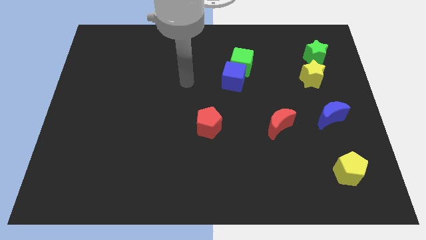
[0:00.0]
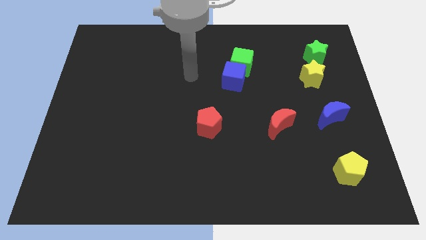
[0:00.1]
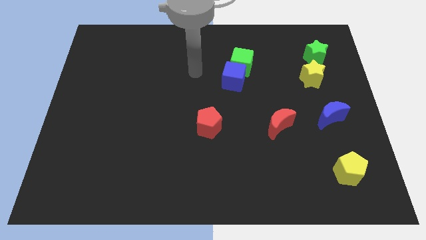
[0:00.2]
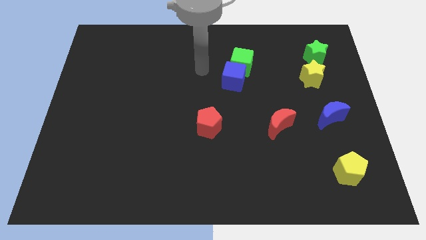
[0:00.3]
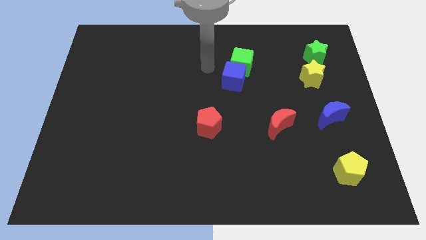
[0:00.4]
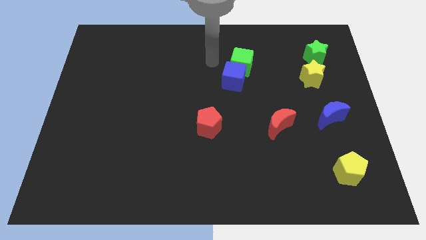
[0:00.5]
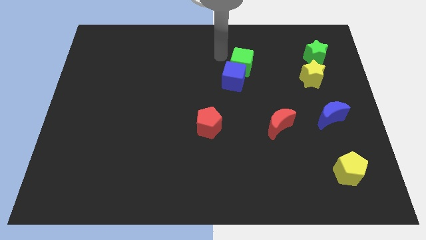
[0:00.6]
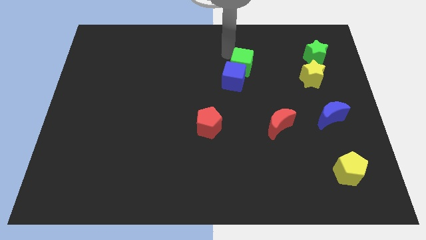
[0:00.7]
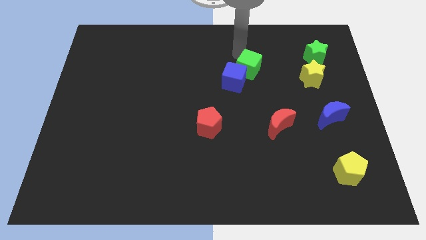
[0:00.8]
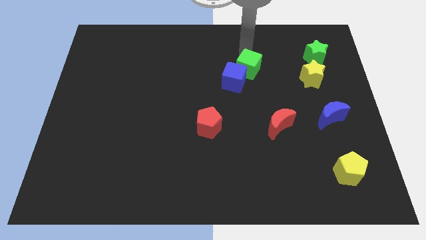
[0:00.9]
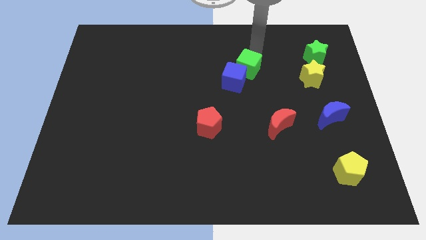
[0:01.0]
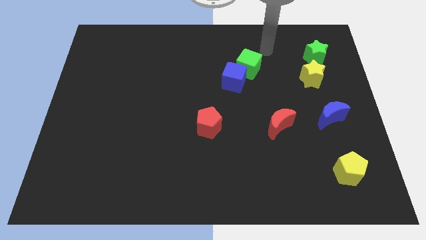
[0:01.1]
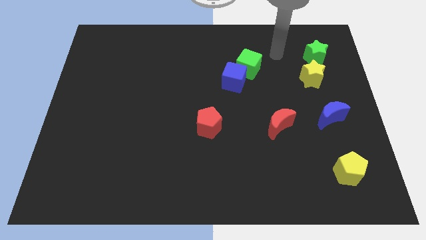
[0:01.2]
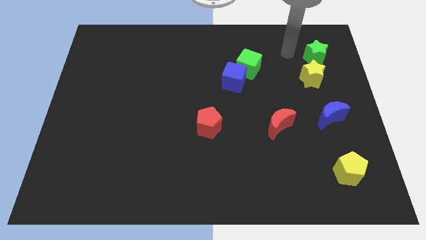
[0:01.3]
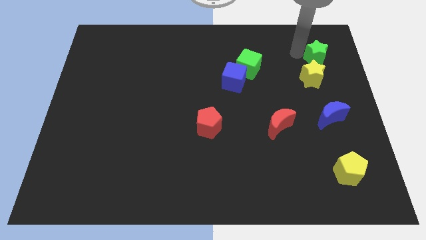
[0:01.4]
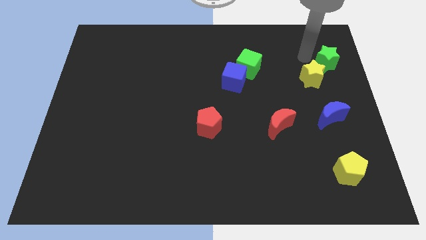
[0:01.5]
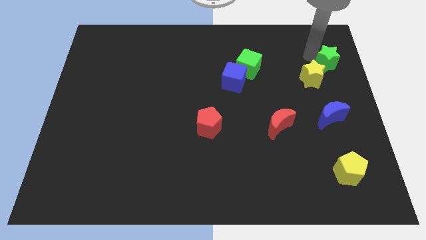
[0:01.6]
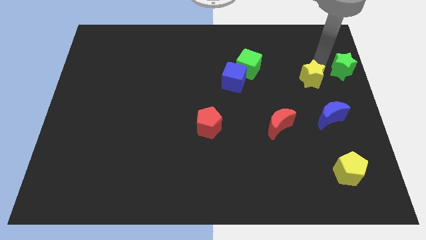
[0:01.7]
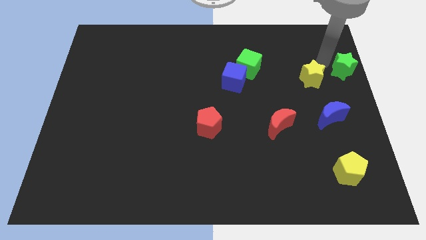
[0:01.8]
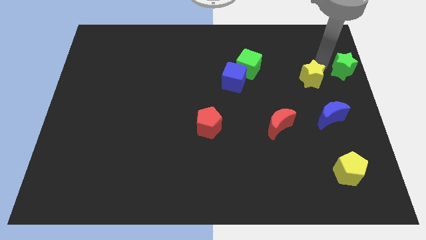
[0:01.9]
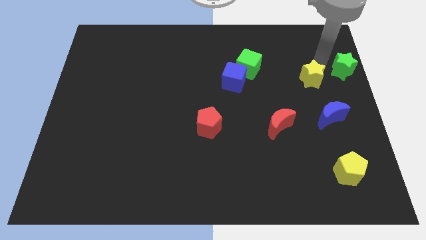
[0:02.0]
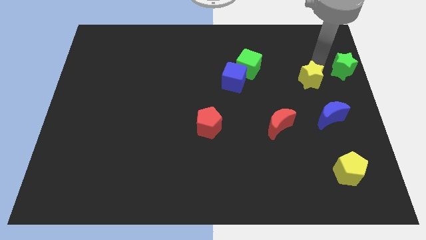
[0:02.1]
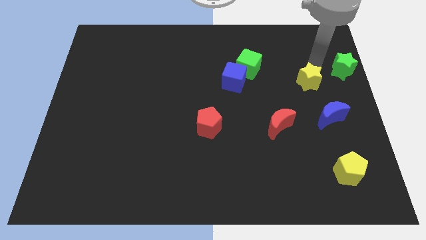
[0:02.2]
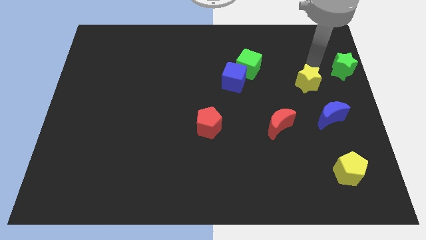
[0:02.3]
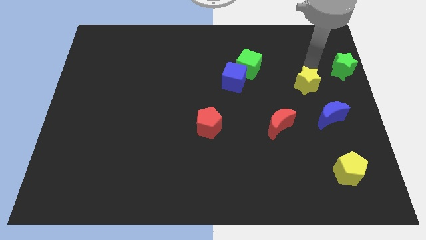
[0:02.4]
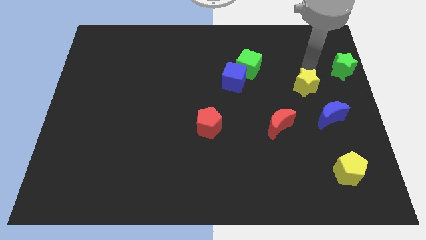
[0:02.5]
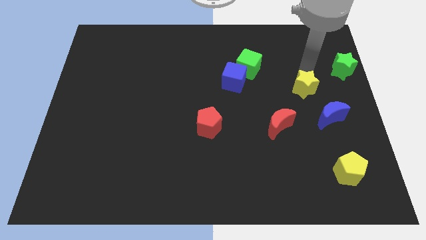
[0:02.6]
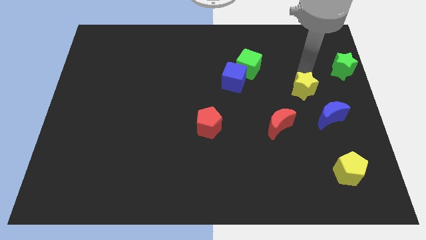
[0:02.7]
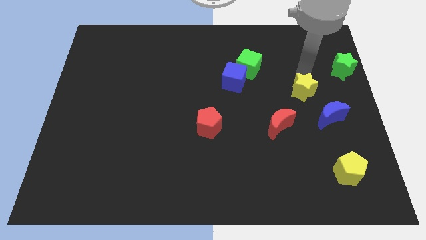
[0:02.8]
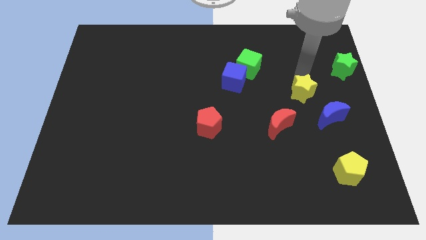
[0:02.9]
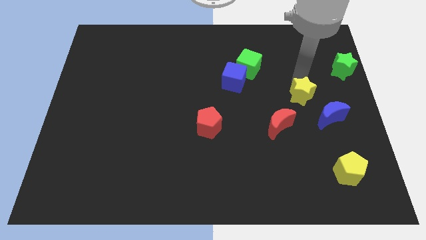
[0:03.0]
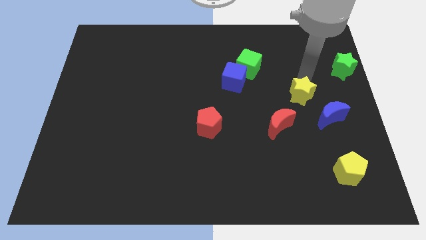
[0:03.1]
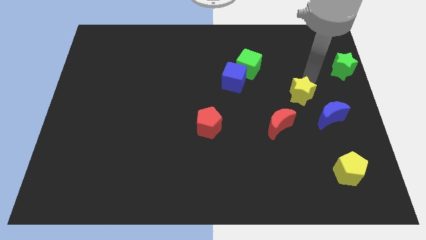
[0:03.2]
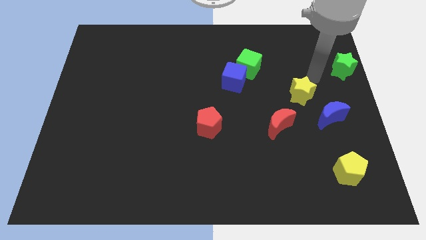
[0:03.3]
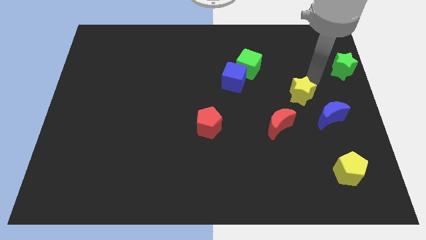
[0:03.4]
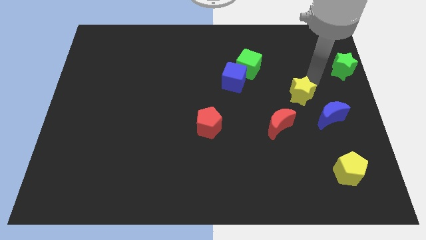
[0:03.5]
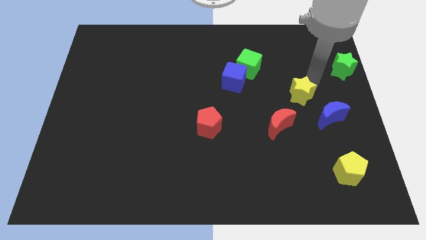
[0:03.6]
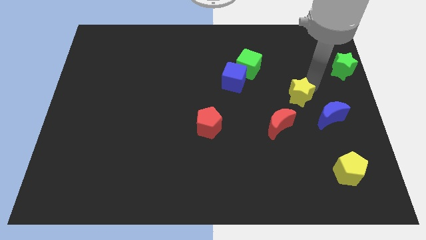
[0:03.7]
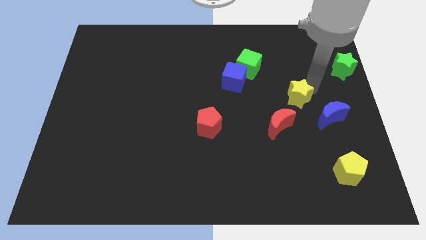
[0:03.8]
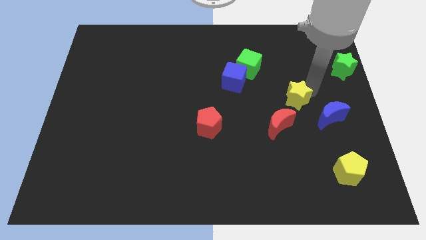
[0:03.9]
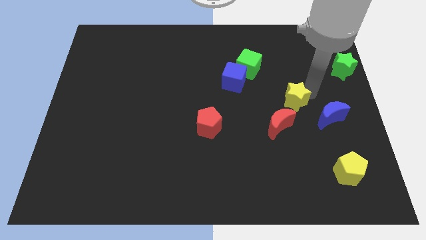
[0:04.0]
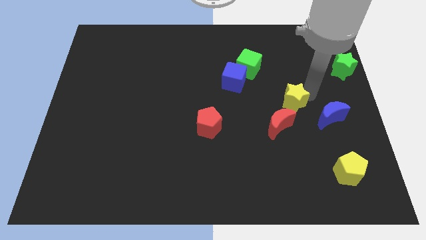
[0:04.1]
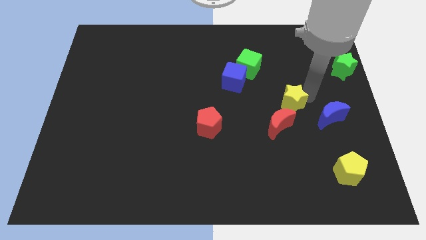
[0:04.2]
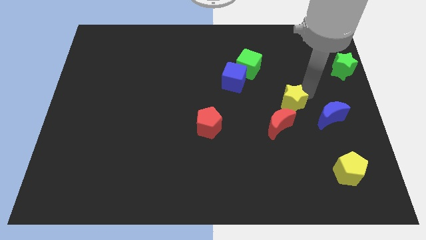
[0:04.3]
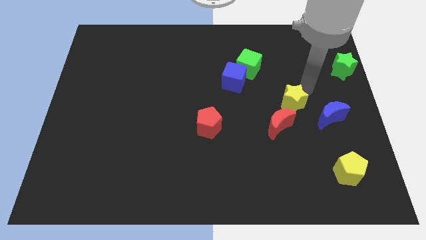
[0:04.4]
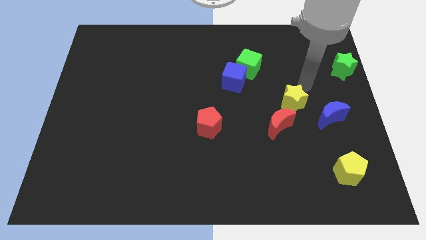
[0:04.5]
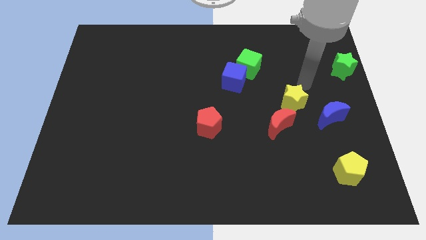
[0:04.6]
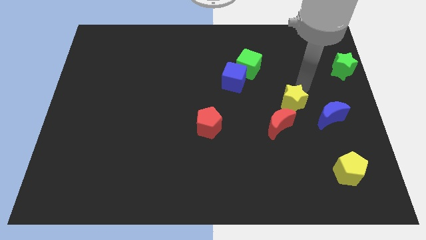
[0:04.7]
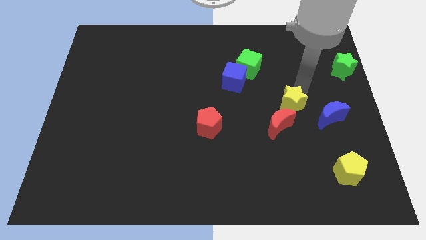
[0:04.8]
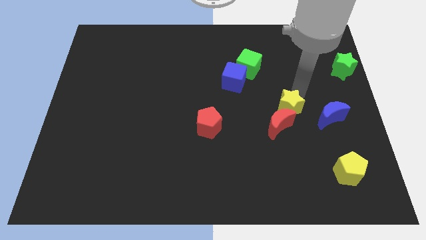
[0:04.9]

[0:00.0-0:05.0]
push the yellow star close to the red moon

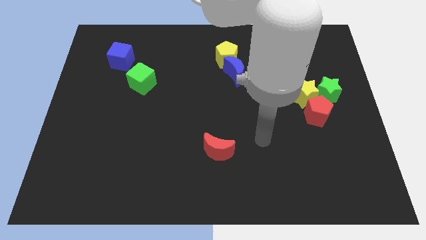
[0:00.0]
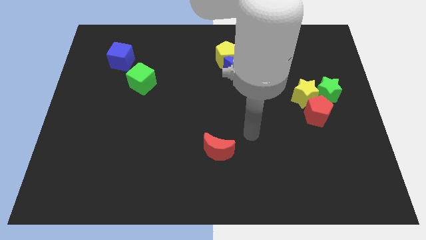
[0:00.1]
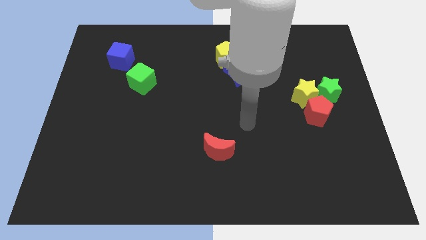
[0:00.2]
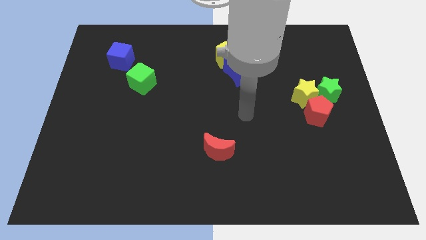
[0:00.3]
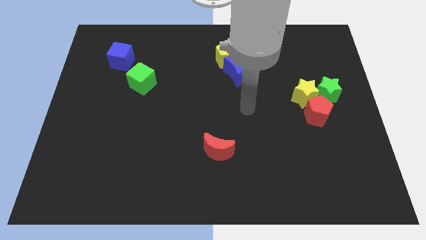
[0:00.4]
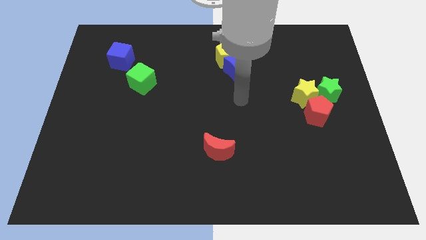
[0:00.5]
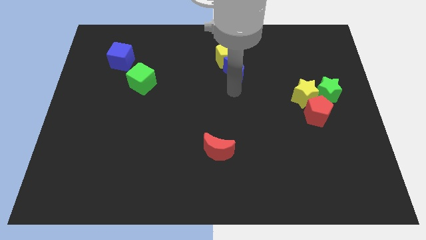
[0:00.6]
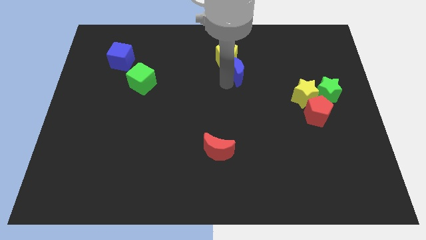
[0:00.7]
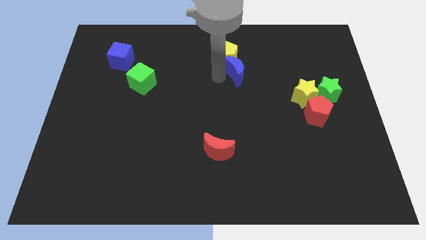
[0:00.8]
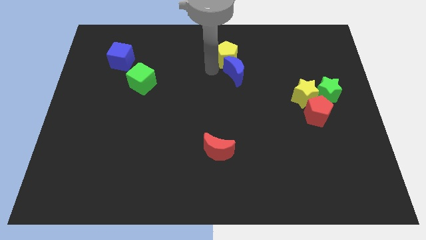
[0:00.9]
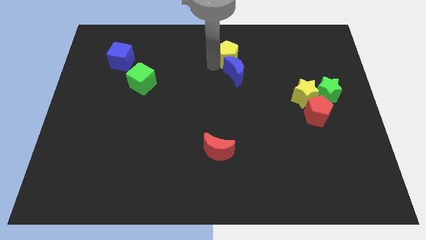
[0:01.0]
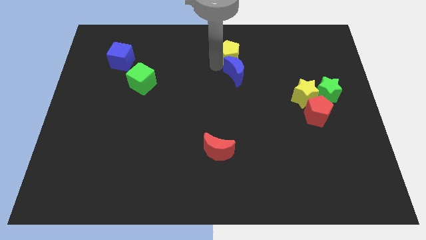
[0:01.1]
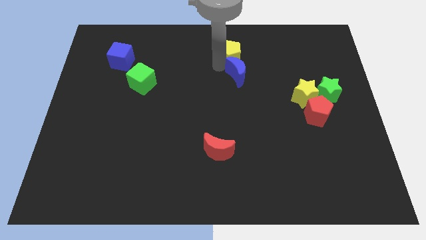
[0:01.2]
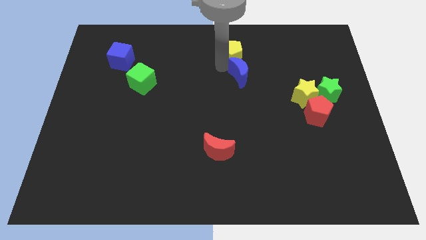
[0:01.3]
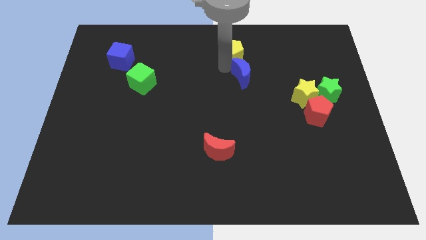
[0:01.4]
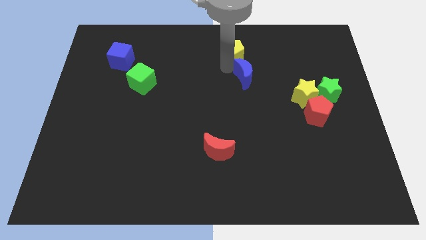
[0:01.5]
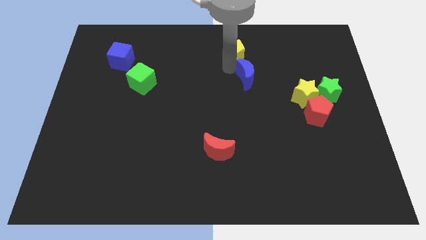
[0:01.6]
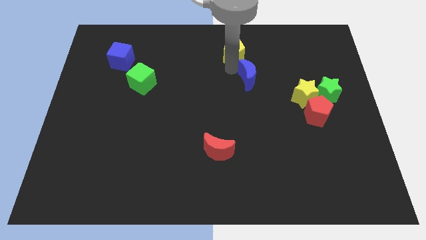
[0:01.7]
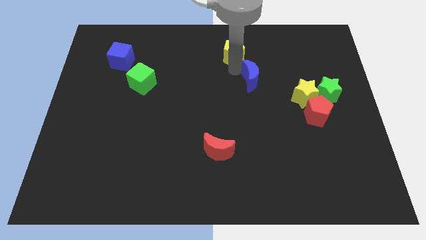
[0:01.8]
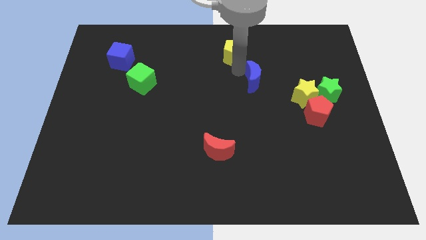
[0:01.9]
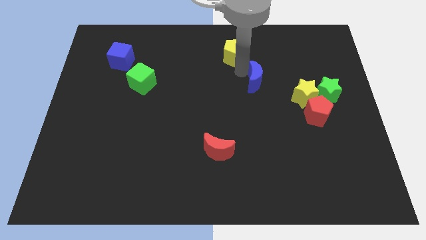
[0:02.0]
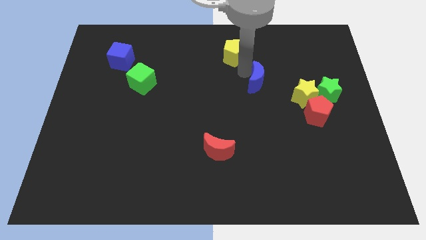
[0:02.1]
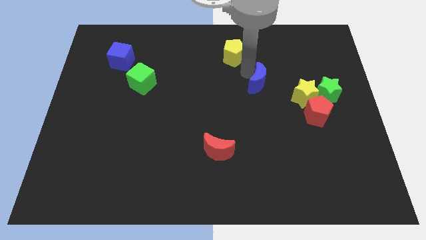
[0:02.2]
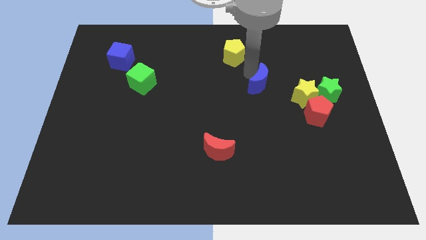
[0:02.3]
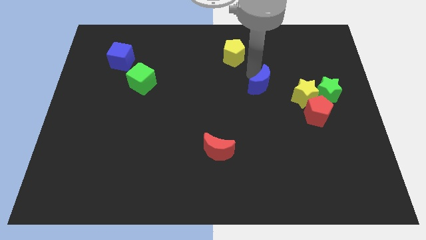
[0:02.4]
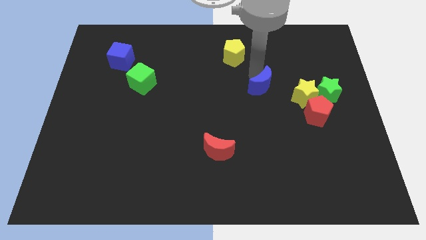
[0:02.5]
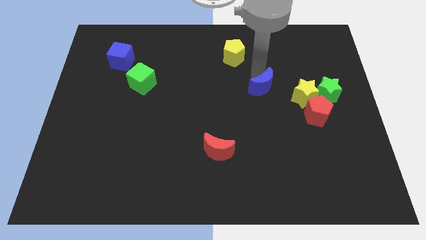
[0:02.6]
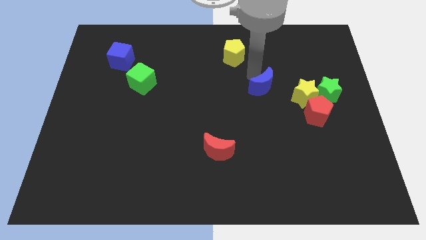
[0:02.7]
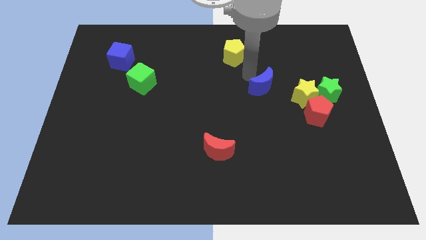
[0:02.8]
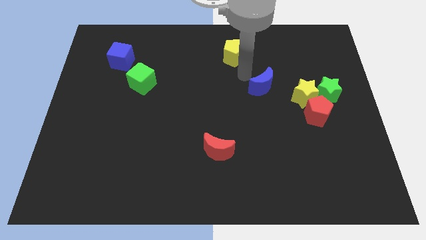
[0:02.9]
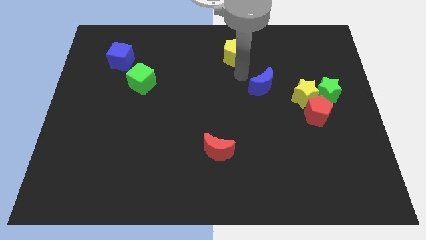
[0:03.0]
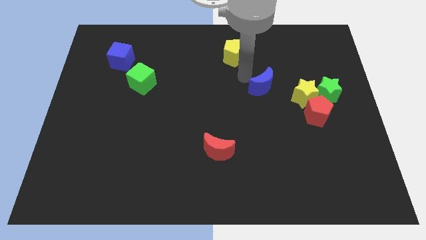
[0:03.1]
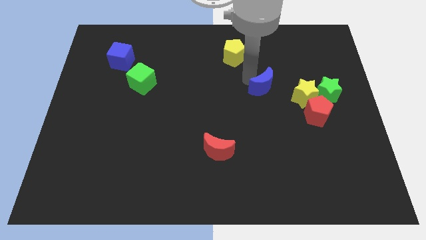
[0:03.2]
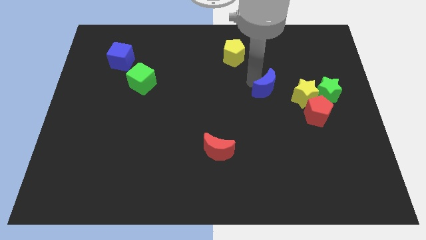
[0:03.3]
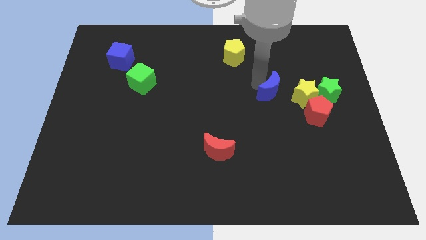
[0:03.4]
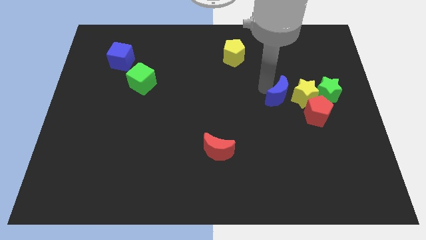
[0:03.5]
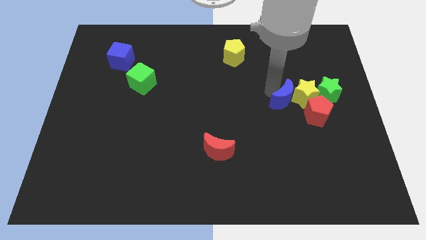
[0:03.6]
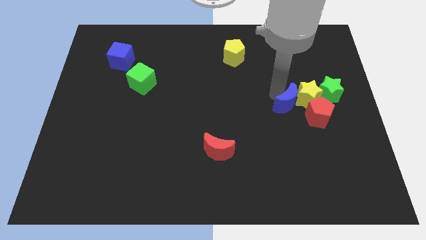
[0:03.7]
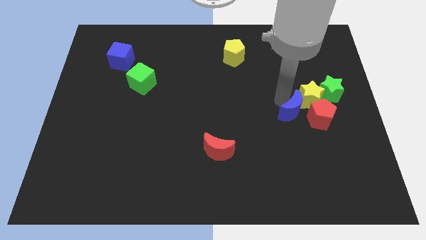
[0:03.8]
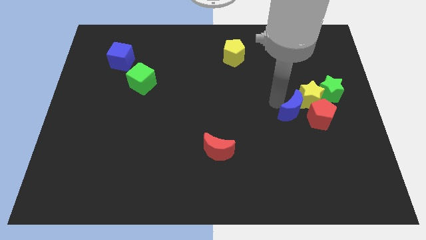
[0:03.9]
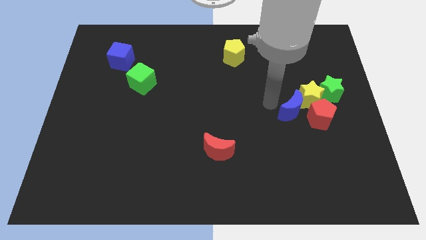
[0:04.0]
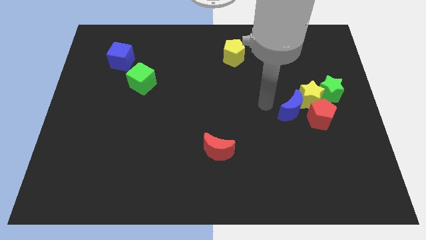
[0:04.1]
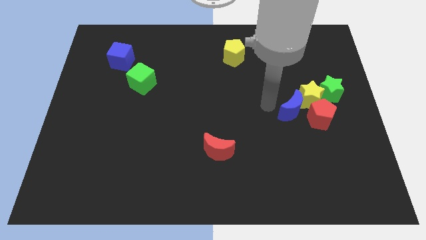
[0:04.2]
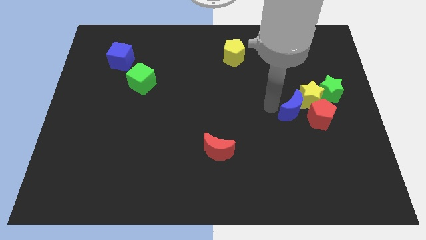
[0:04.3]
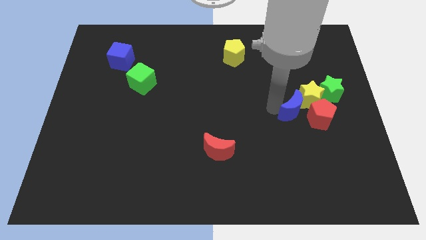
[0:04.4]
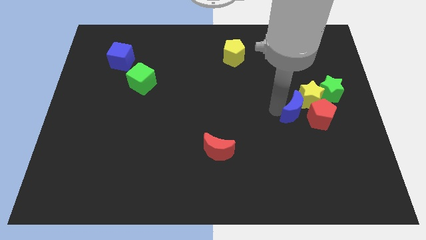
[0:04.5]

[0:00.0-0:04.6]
slide the blue moon to the red pentagon
